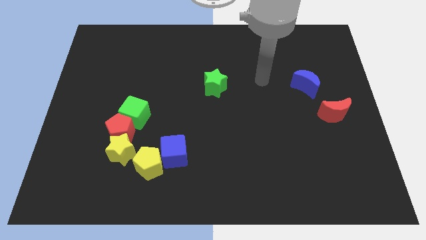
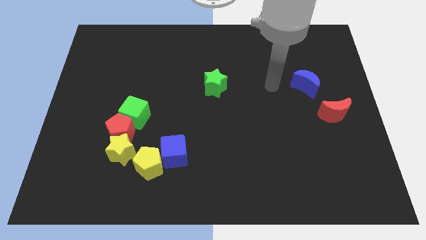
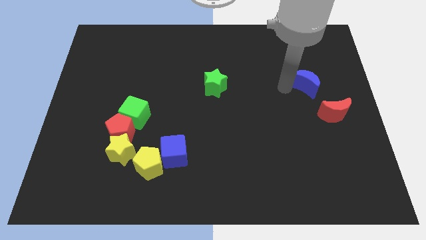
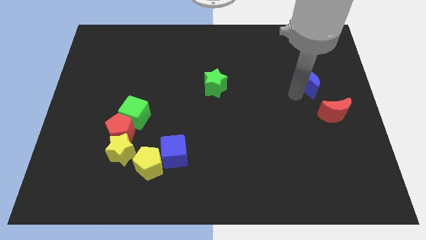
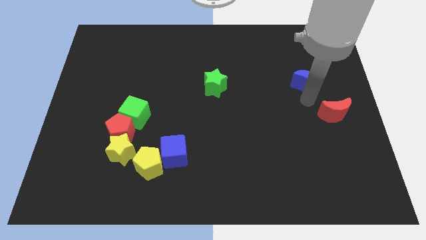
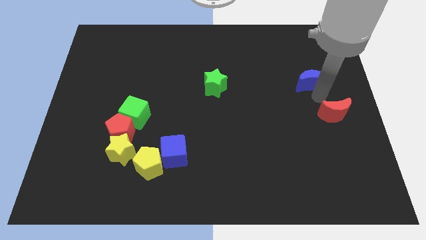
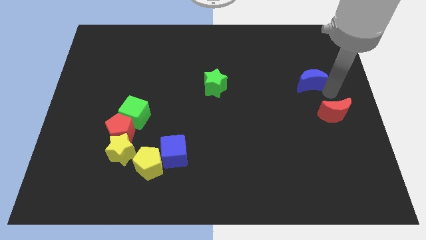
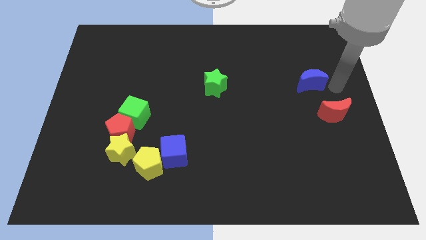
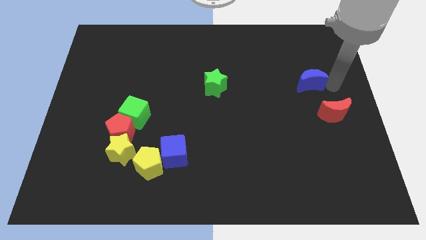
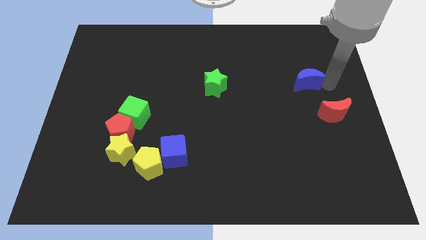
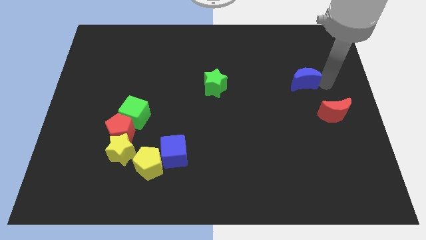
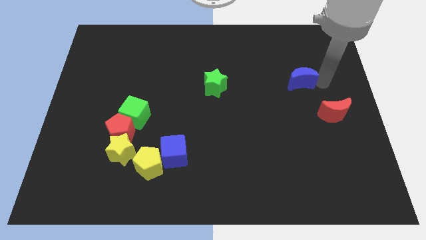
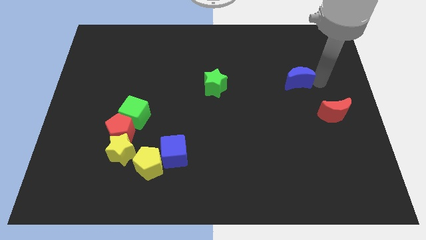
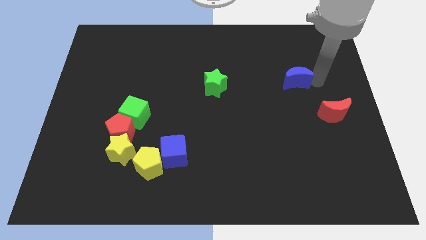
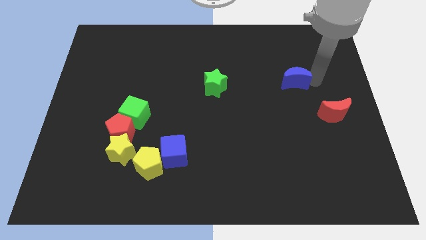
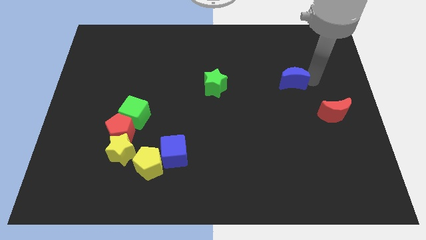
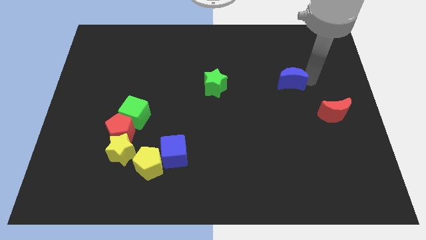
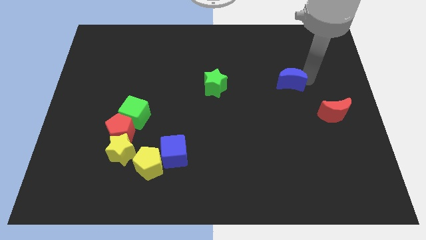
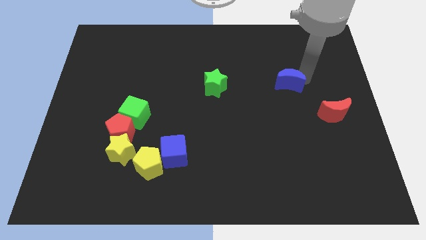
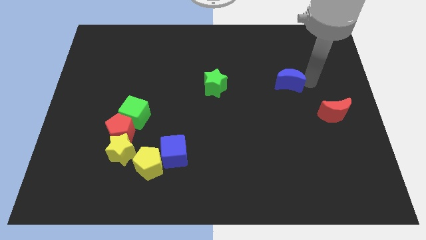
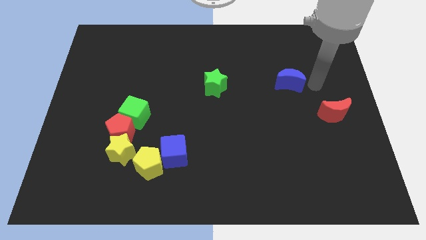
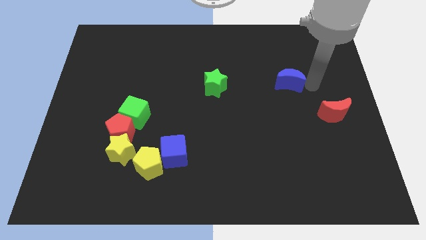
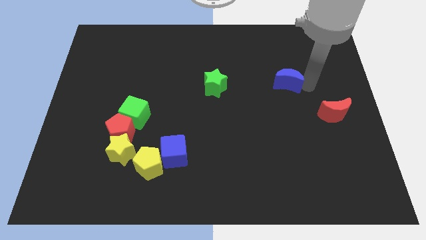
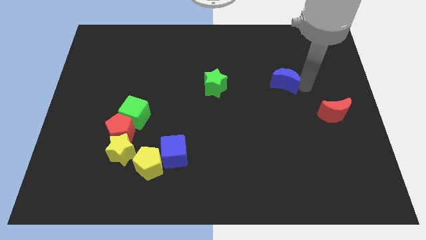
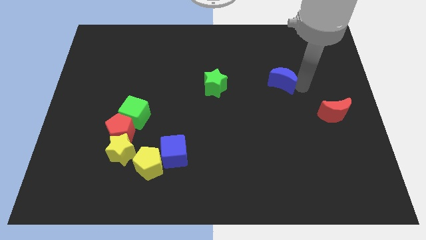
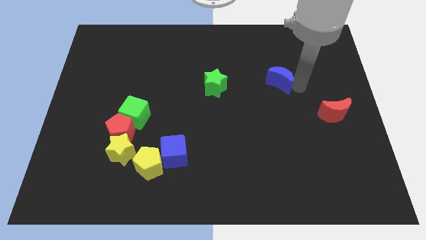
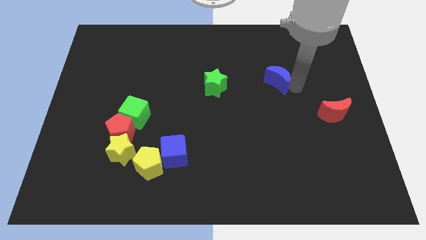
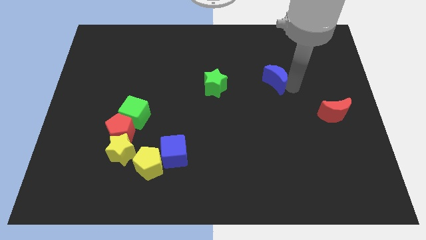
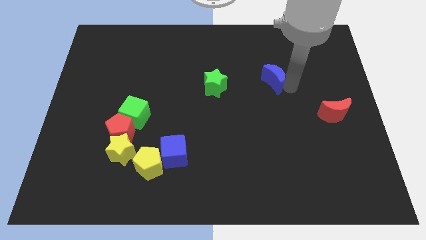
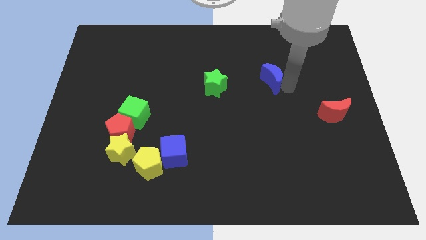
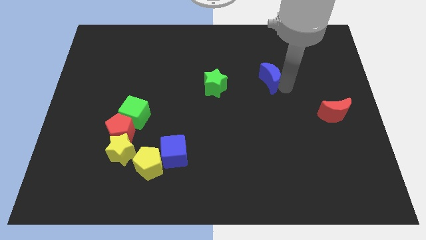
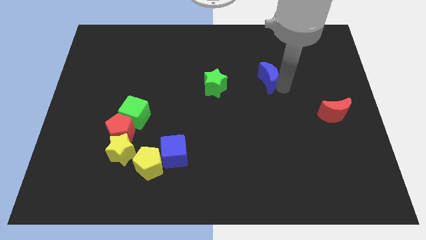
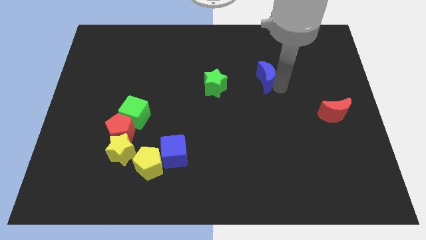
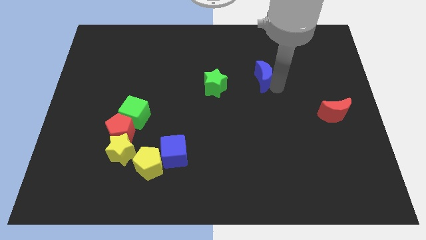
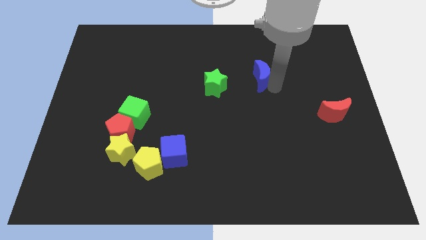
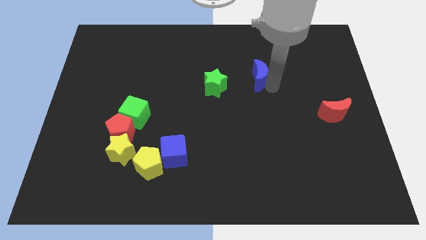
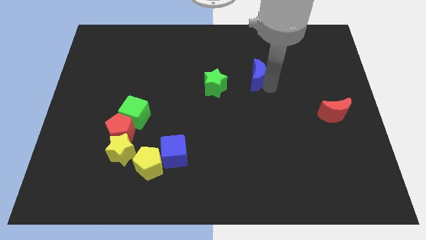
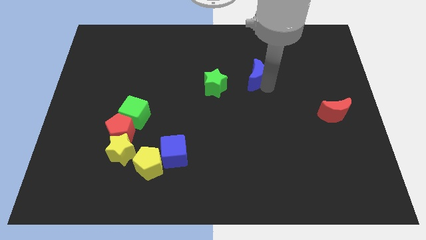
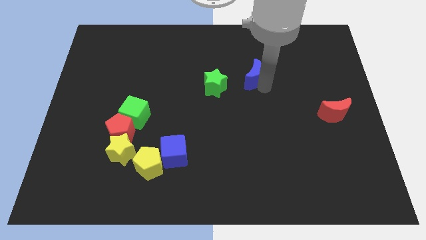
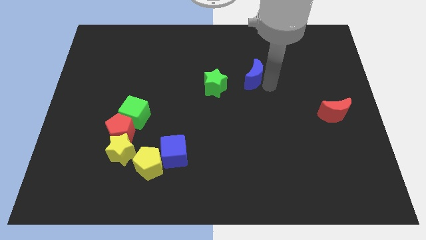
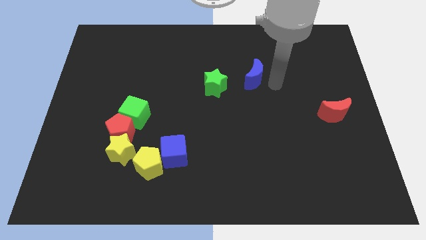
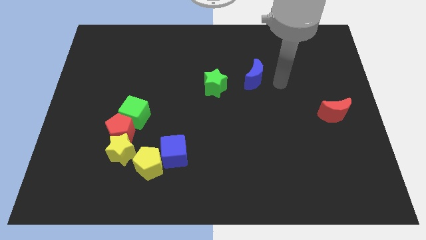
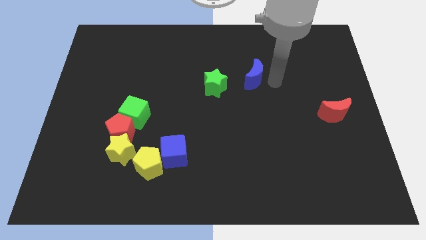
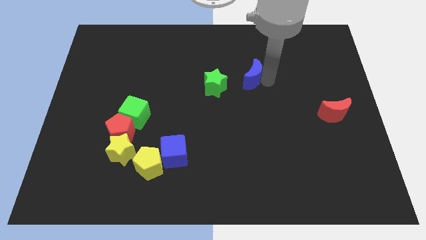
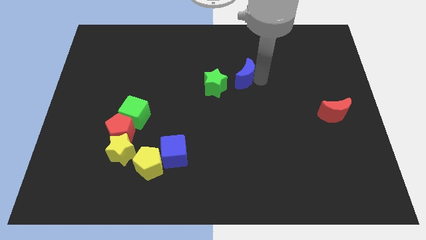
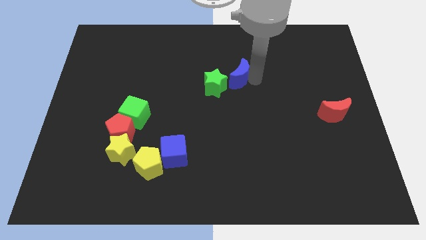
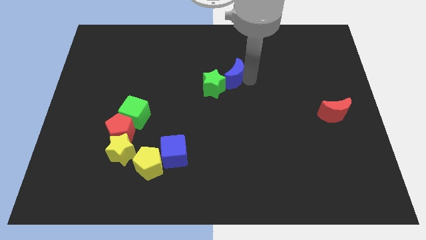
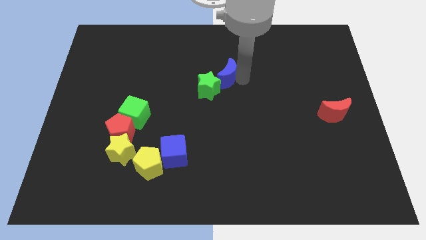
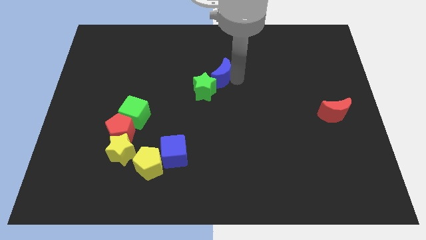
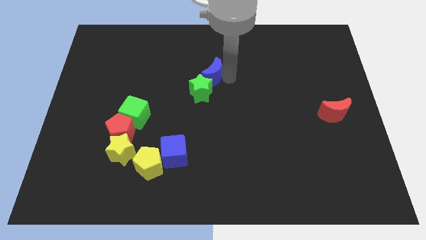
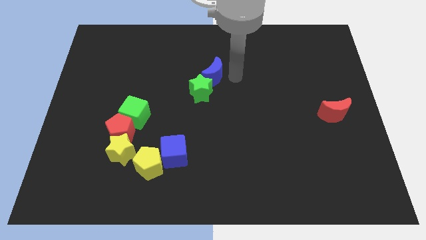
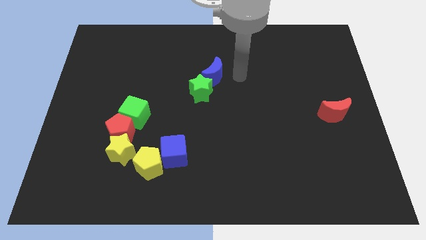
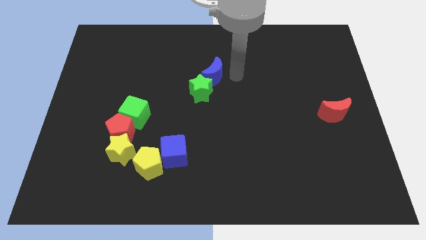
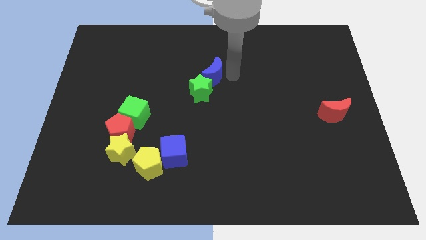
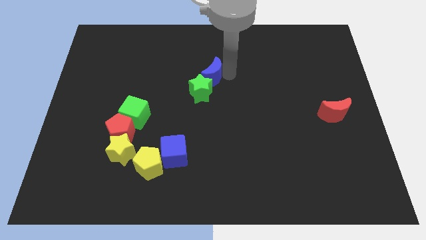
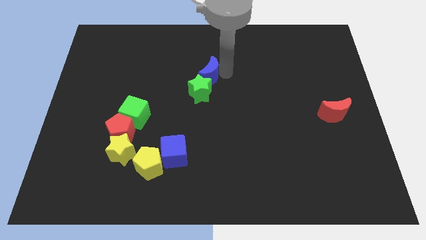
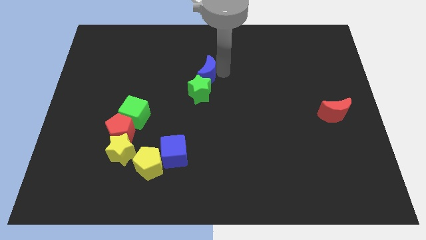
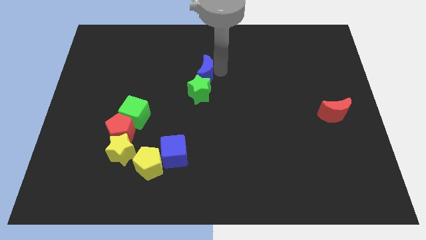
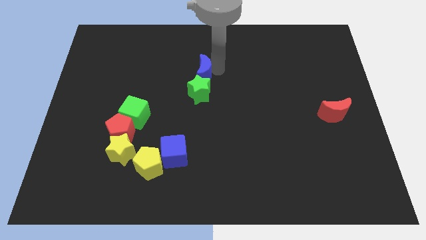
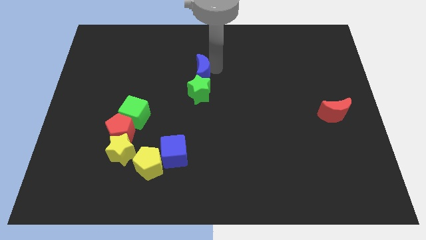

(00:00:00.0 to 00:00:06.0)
move the blue moon to the top left of the green star

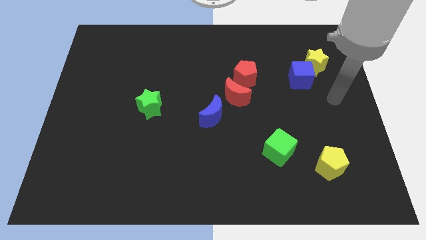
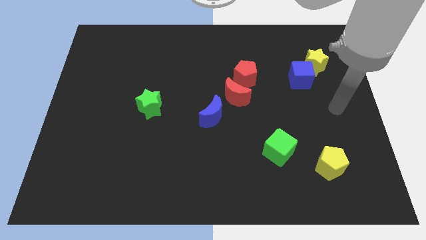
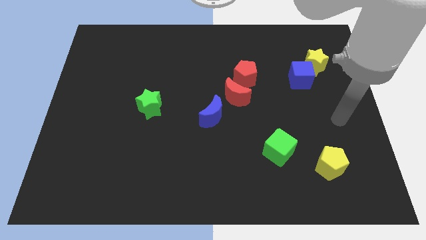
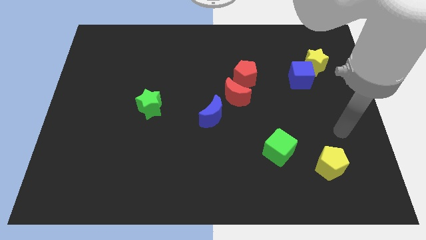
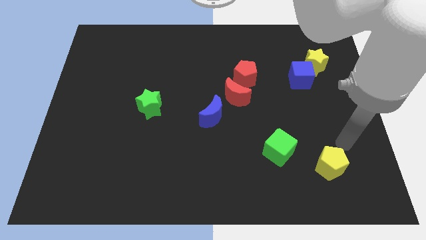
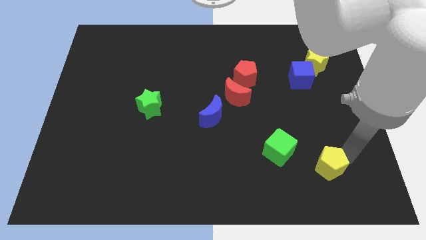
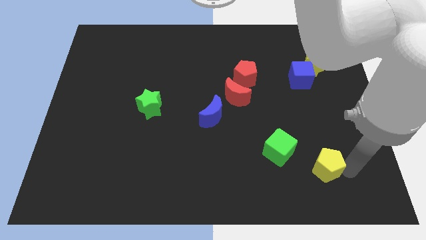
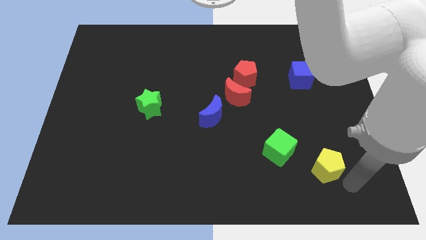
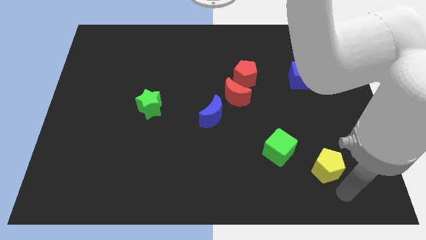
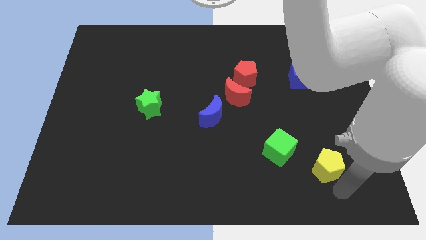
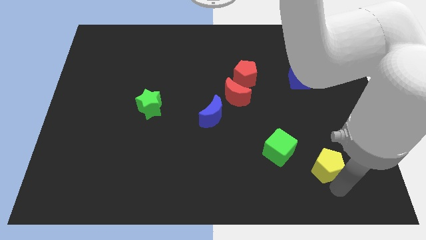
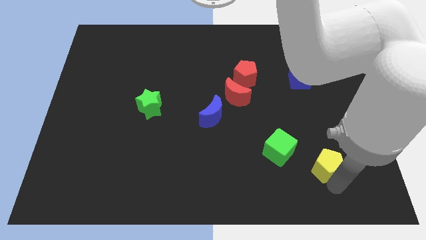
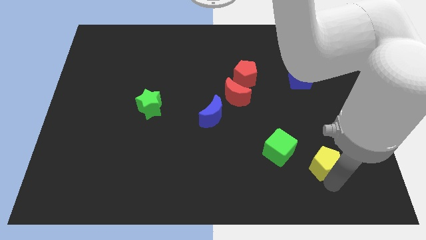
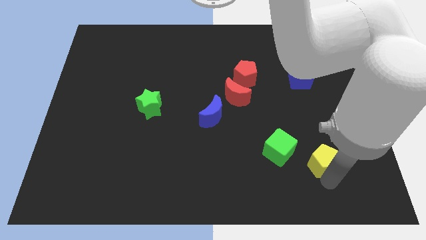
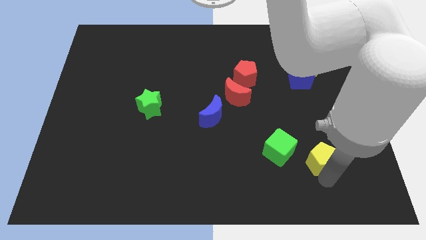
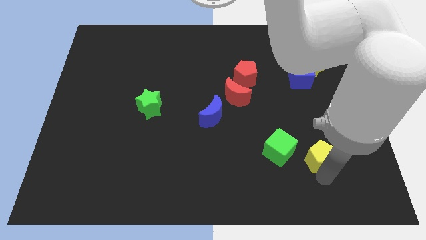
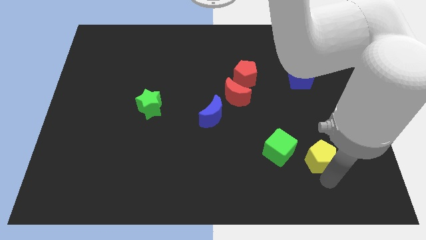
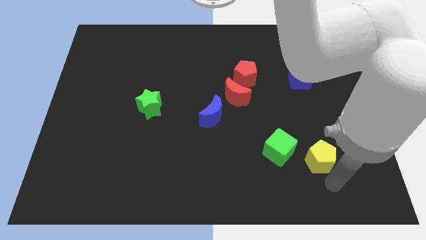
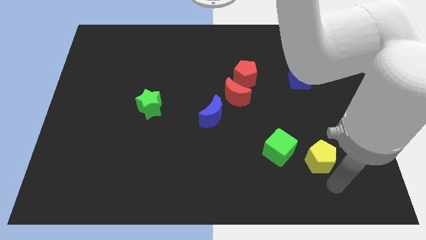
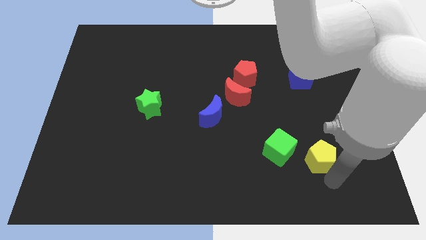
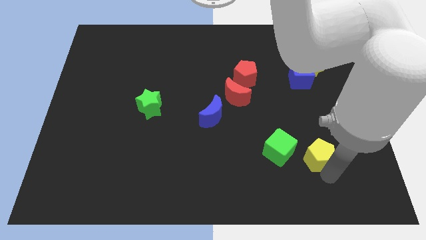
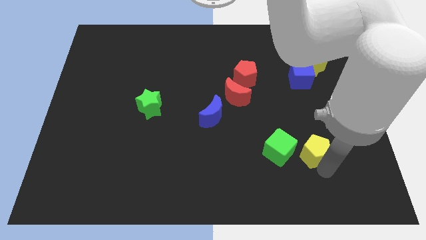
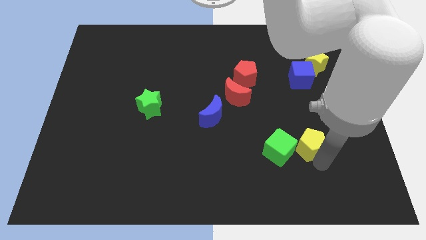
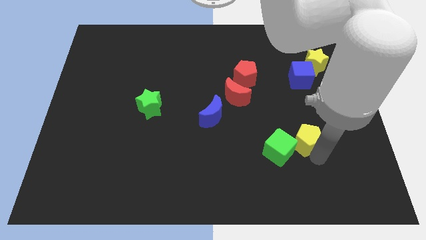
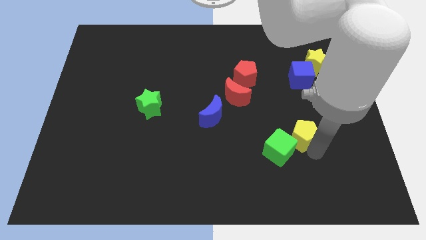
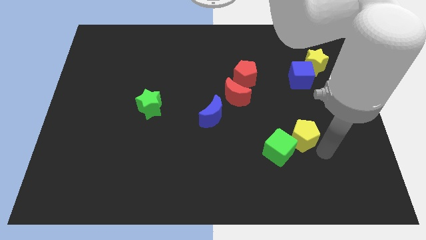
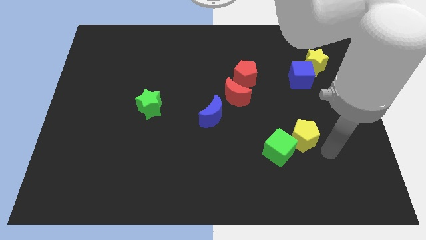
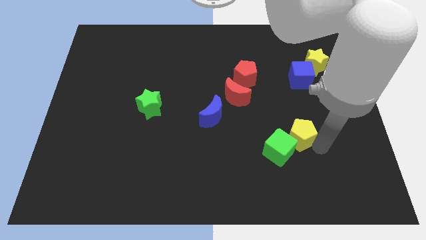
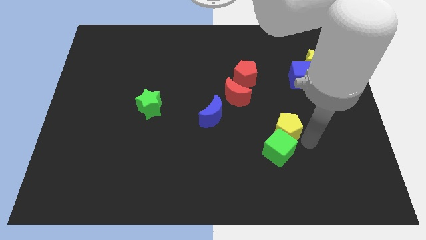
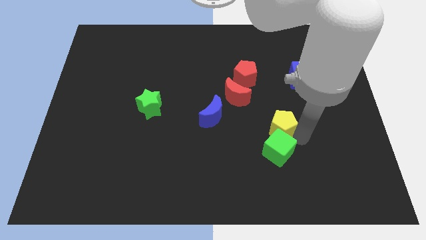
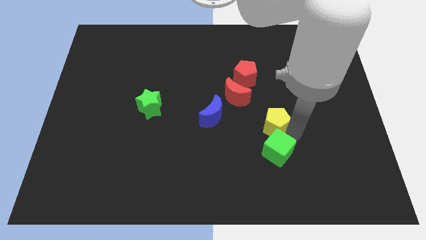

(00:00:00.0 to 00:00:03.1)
slide the yellow pentagon just right of the blue moon
